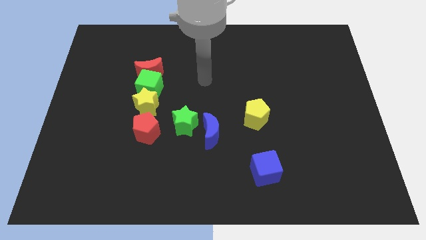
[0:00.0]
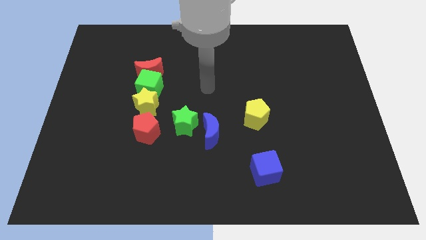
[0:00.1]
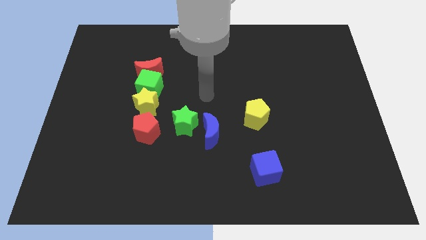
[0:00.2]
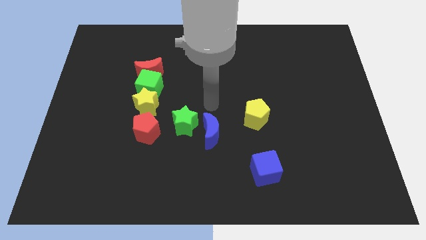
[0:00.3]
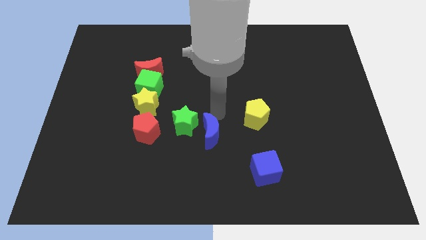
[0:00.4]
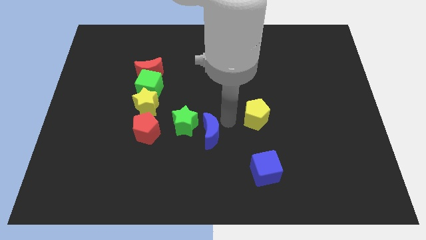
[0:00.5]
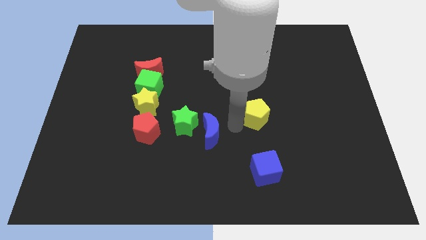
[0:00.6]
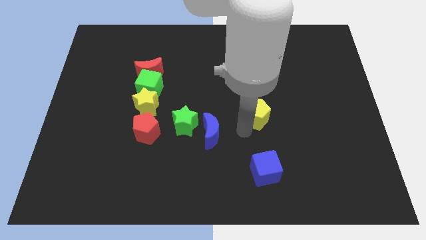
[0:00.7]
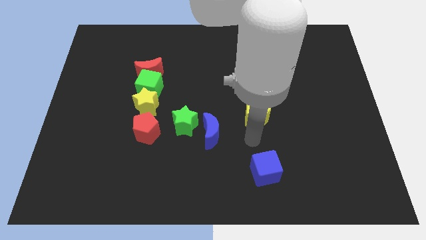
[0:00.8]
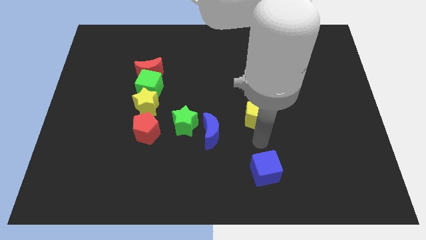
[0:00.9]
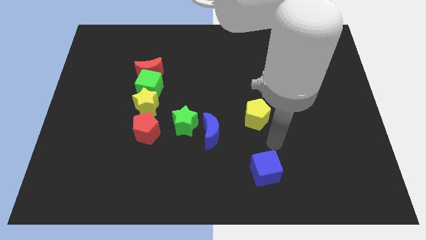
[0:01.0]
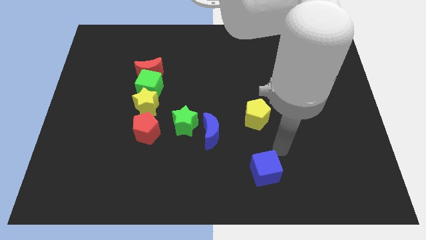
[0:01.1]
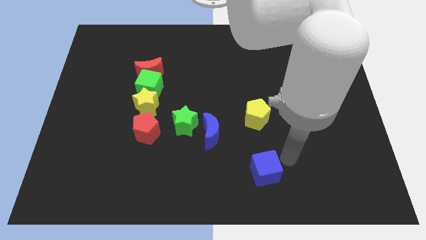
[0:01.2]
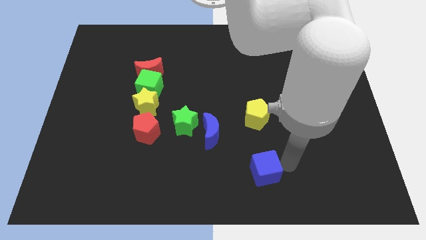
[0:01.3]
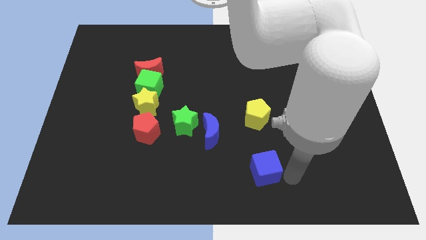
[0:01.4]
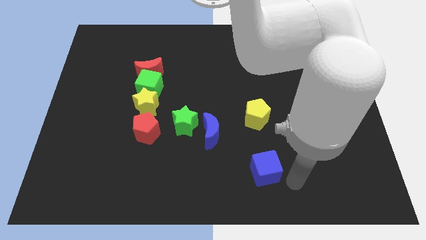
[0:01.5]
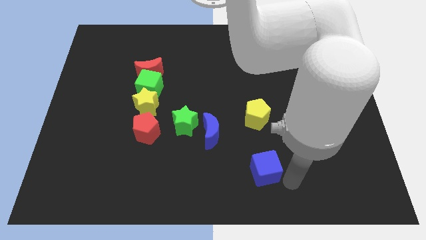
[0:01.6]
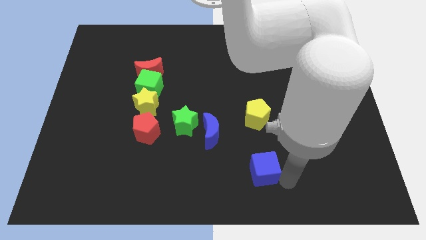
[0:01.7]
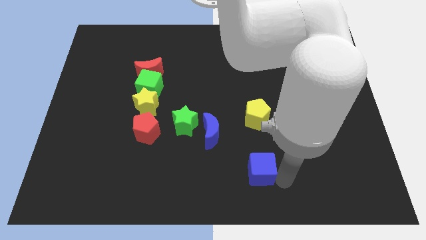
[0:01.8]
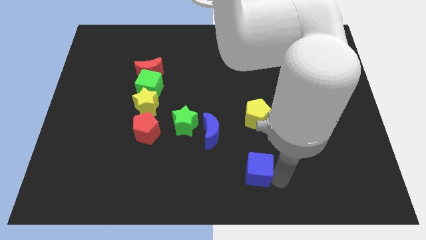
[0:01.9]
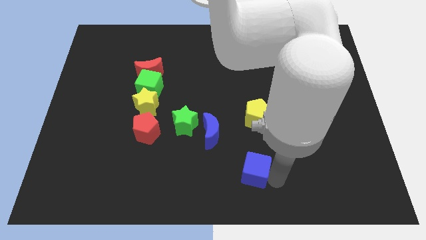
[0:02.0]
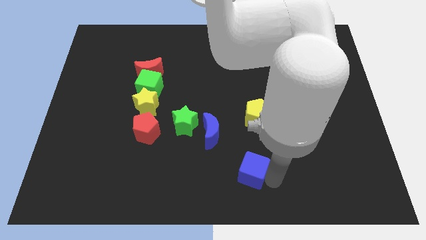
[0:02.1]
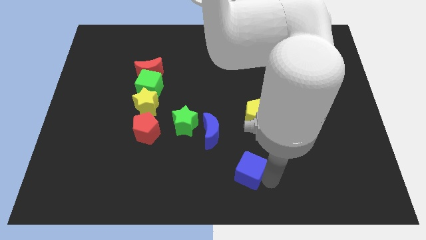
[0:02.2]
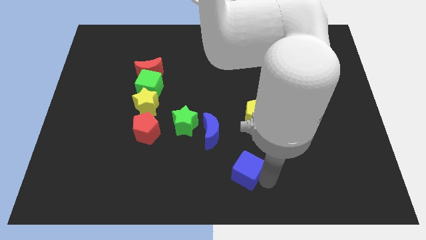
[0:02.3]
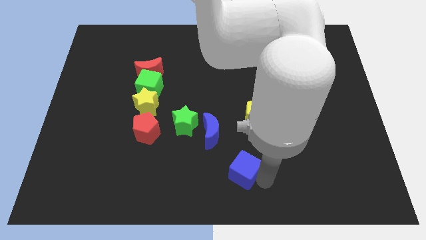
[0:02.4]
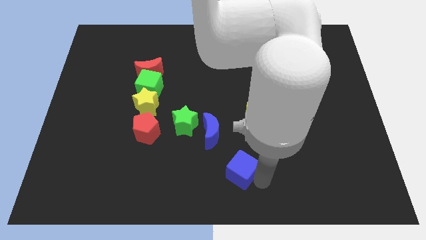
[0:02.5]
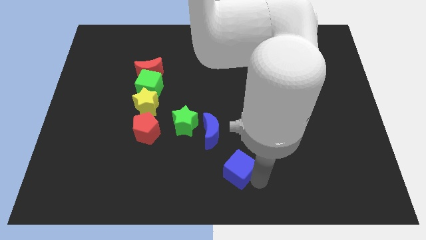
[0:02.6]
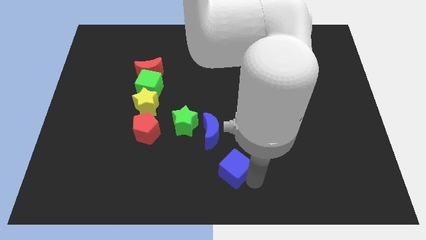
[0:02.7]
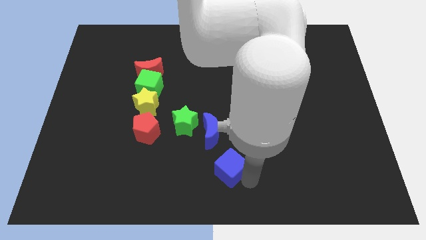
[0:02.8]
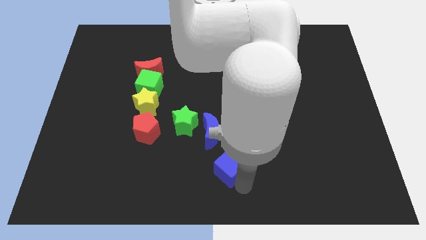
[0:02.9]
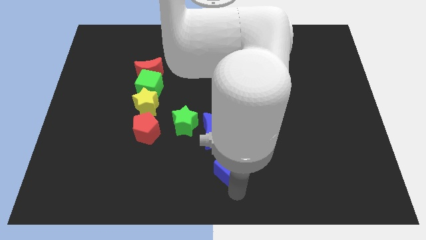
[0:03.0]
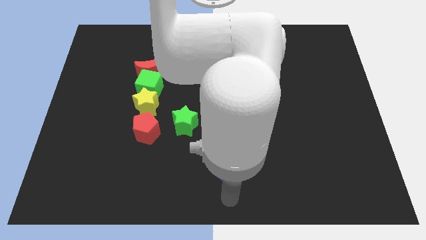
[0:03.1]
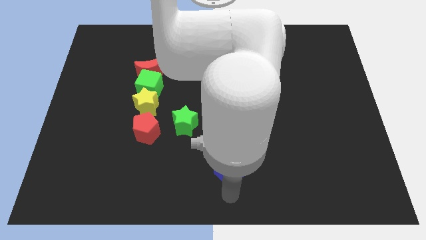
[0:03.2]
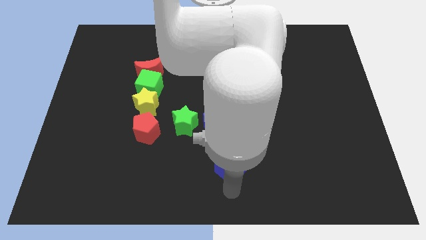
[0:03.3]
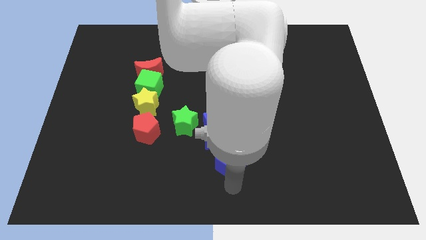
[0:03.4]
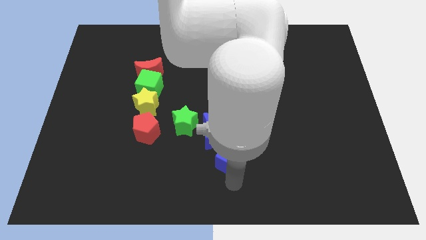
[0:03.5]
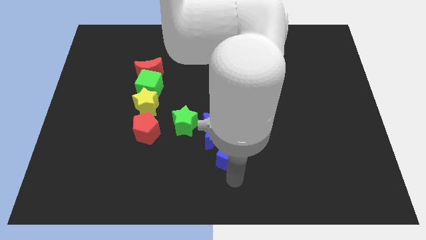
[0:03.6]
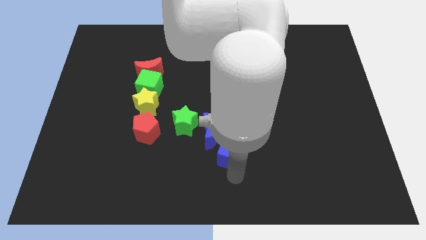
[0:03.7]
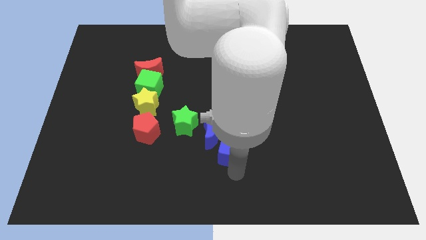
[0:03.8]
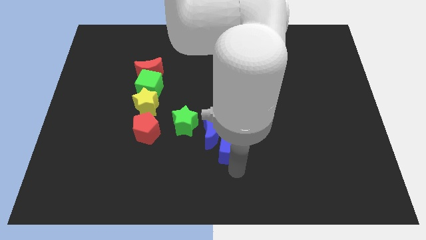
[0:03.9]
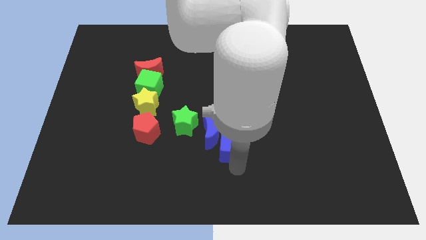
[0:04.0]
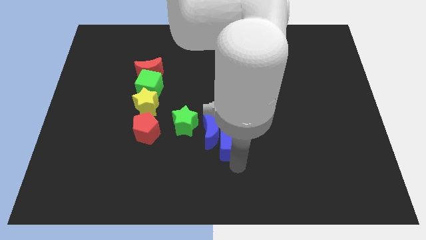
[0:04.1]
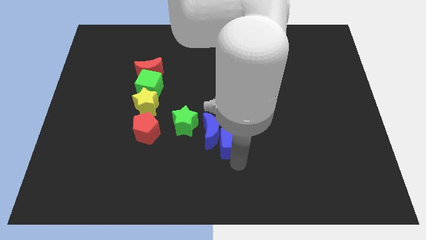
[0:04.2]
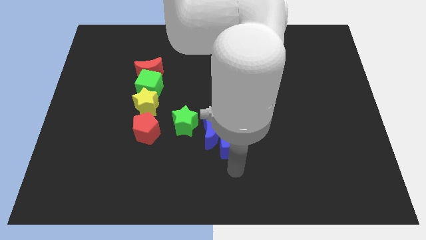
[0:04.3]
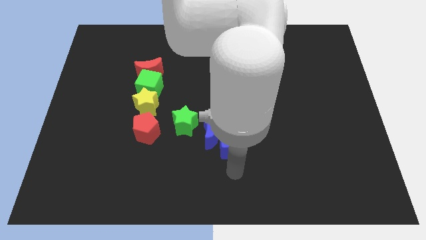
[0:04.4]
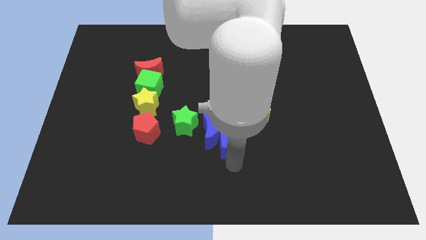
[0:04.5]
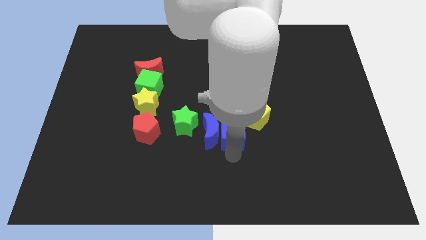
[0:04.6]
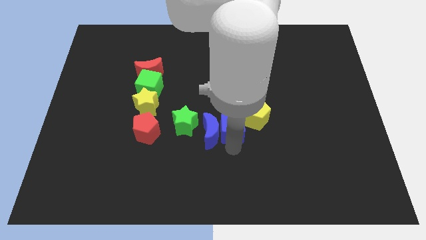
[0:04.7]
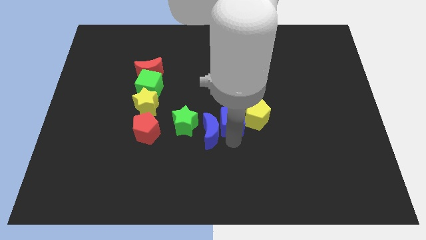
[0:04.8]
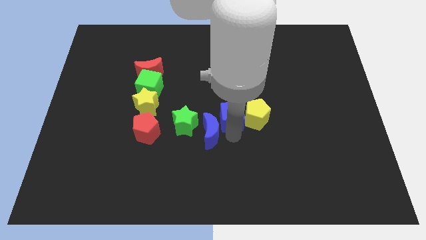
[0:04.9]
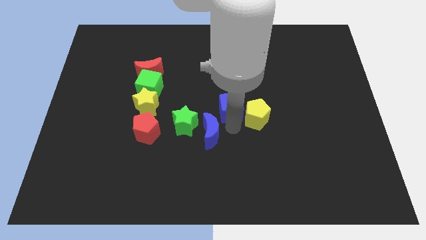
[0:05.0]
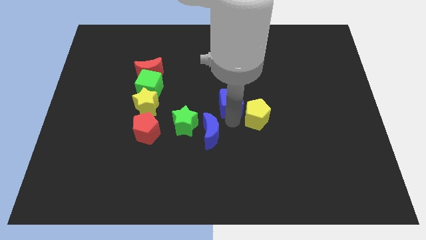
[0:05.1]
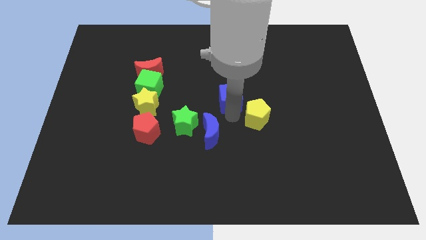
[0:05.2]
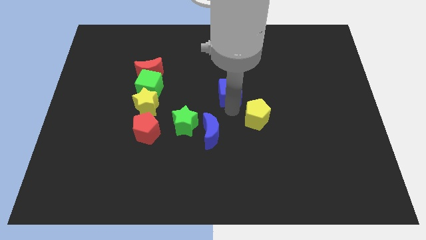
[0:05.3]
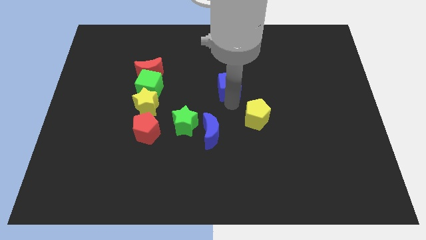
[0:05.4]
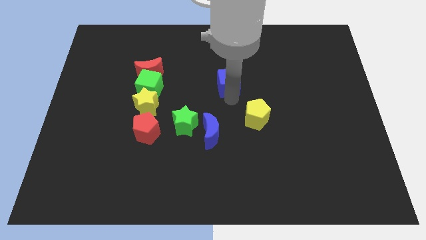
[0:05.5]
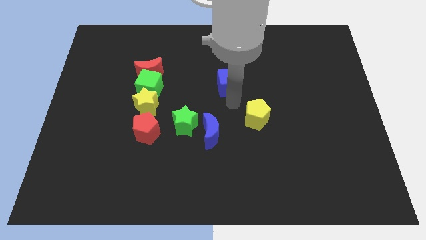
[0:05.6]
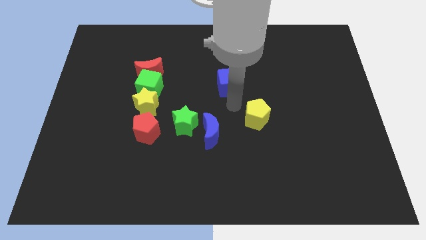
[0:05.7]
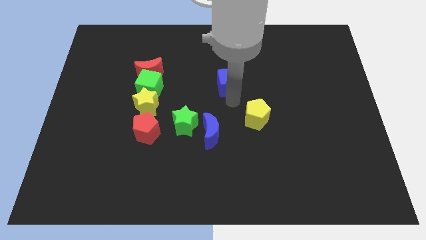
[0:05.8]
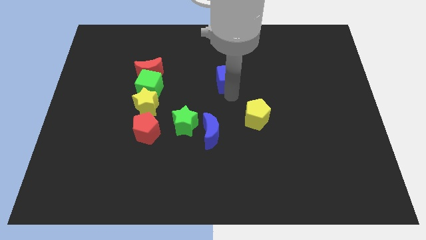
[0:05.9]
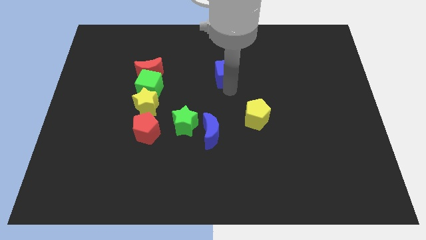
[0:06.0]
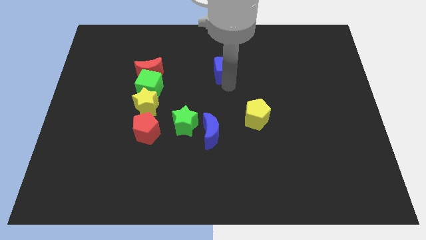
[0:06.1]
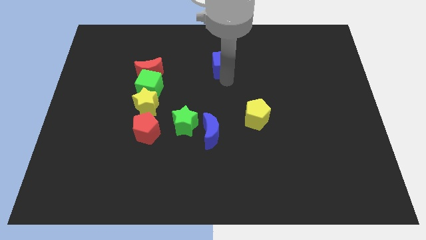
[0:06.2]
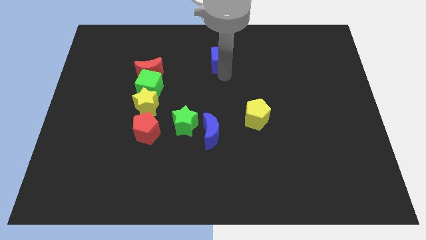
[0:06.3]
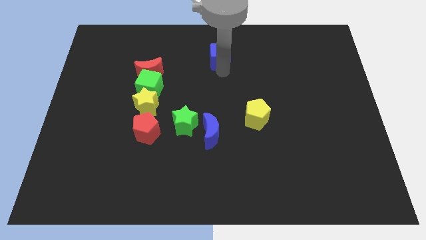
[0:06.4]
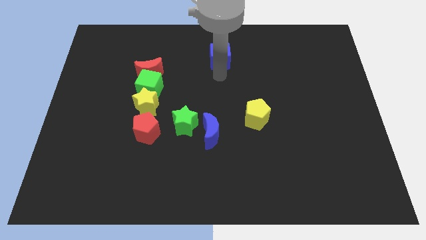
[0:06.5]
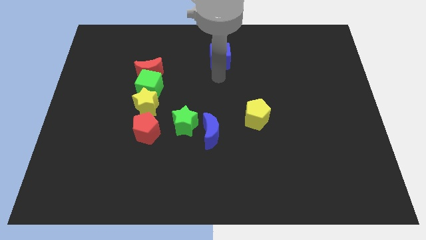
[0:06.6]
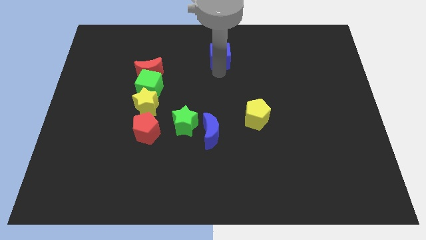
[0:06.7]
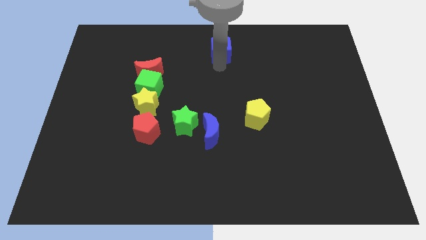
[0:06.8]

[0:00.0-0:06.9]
put the blue cube to the towards your base
